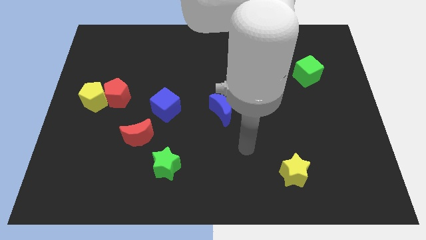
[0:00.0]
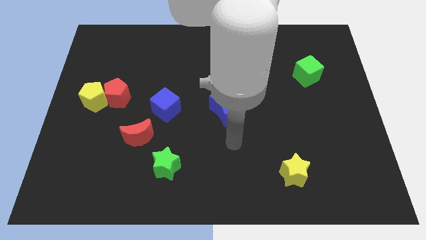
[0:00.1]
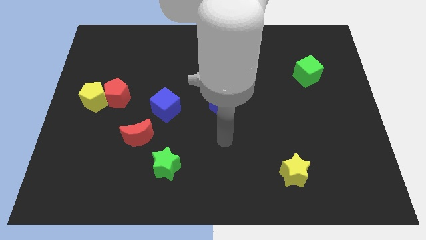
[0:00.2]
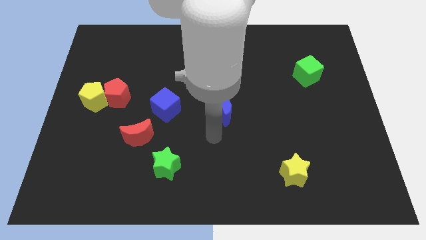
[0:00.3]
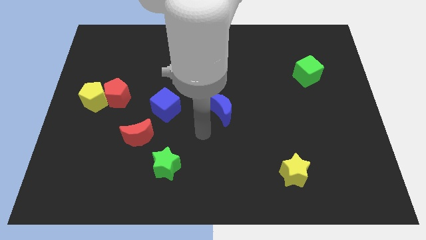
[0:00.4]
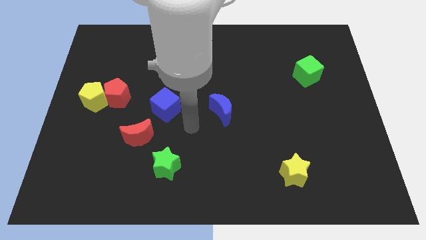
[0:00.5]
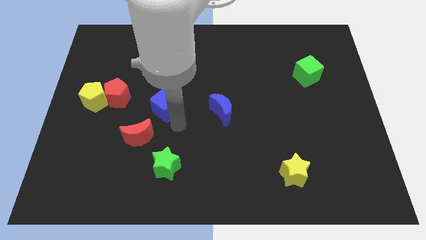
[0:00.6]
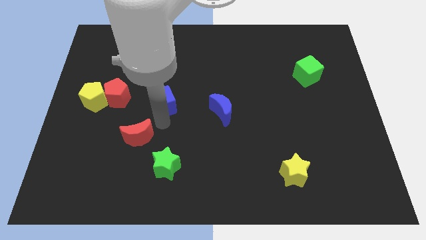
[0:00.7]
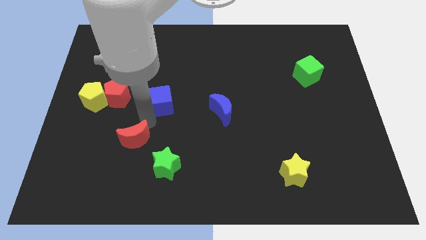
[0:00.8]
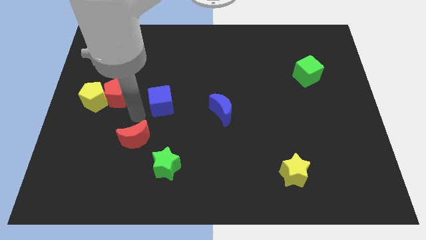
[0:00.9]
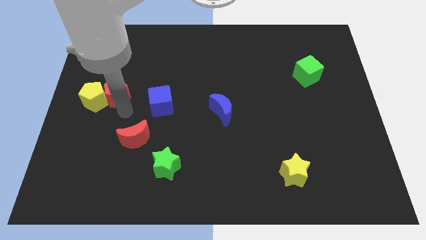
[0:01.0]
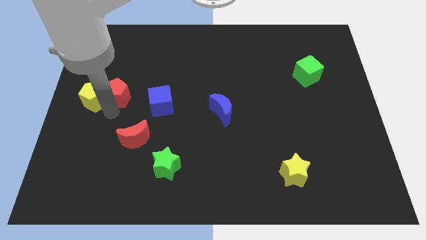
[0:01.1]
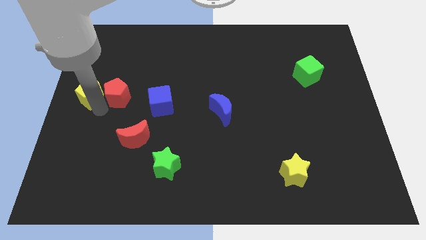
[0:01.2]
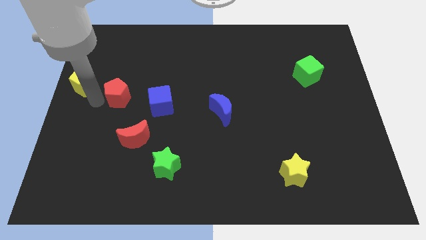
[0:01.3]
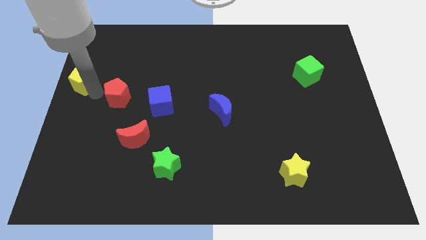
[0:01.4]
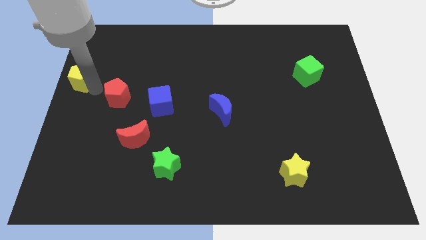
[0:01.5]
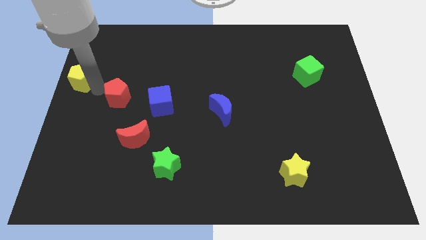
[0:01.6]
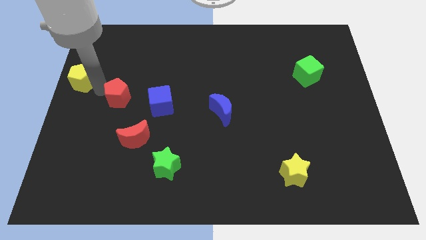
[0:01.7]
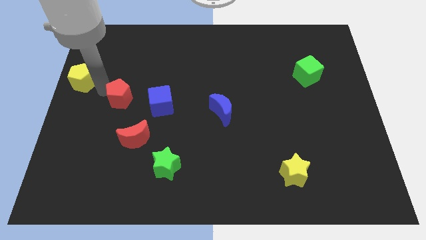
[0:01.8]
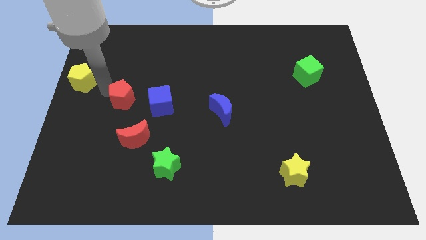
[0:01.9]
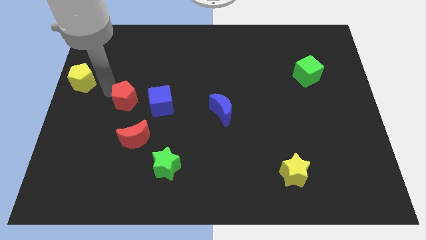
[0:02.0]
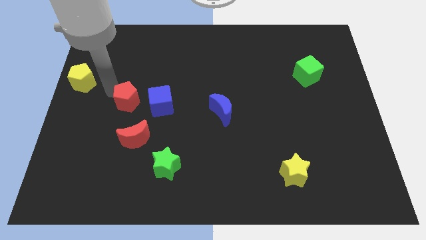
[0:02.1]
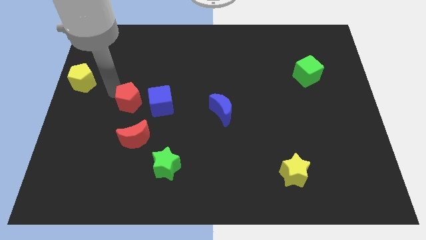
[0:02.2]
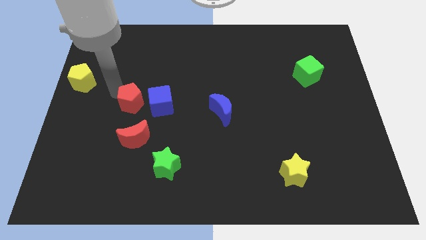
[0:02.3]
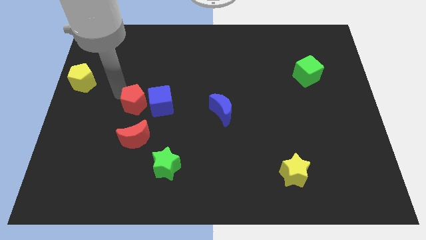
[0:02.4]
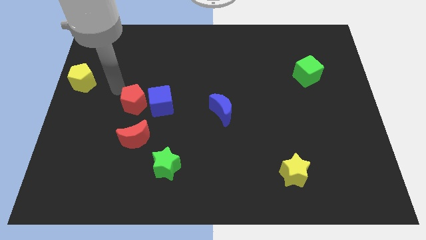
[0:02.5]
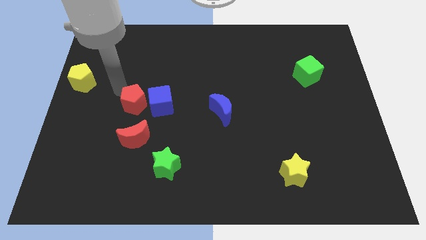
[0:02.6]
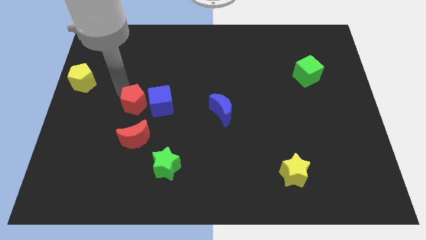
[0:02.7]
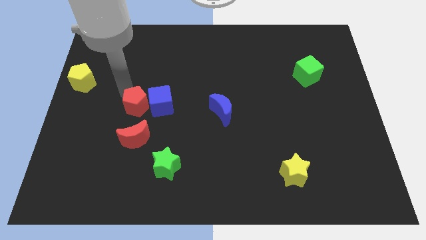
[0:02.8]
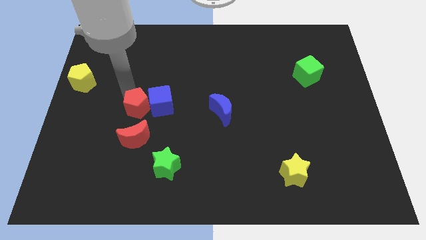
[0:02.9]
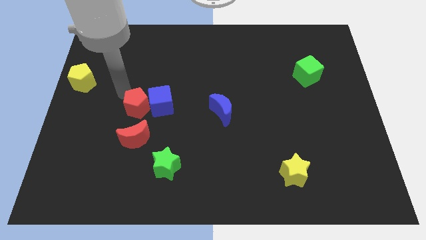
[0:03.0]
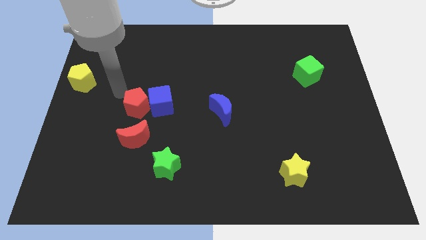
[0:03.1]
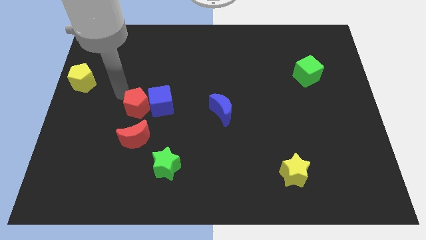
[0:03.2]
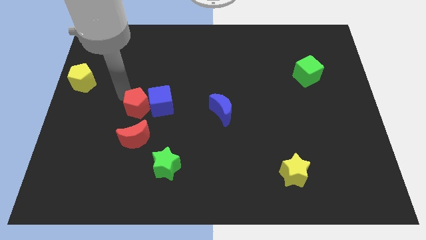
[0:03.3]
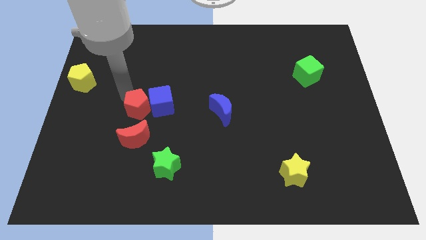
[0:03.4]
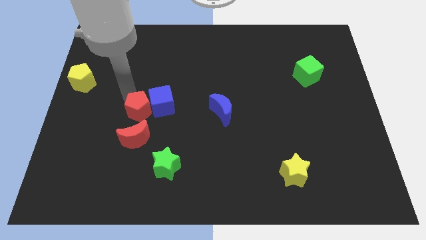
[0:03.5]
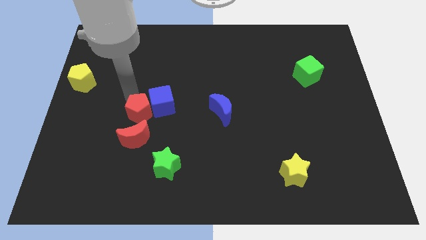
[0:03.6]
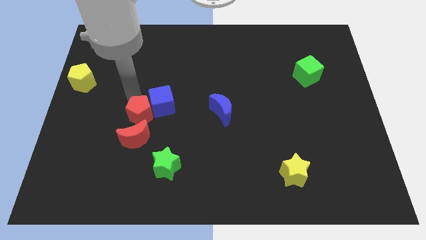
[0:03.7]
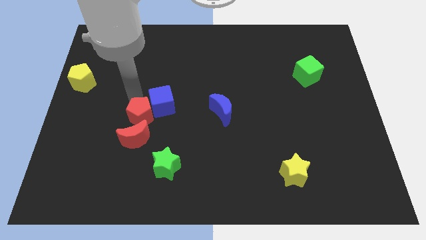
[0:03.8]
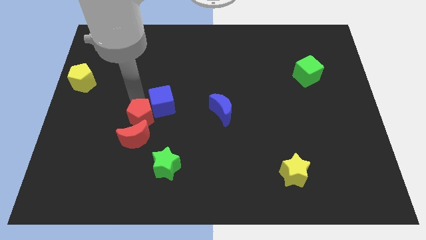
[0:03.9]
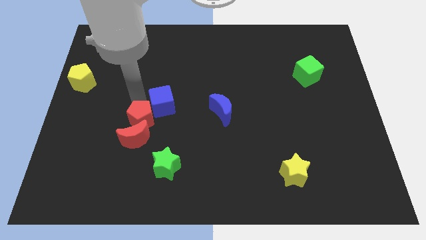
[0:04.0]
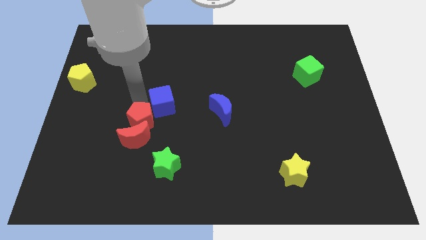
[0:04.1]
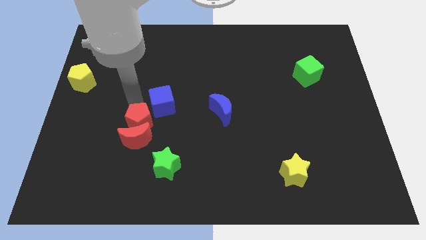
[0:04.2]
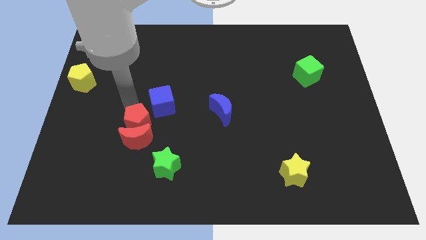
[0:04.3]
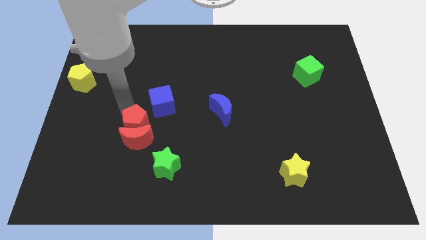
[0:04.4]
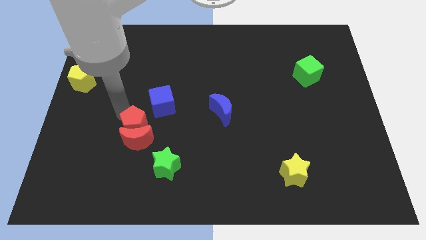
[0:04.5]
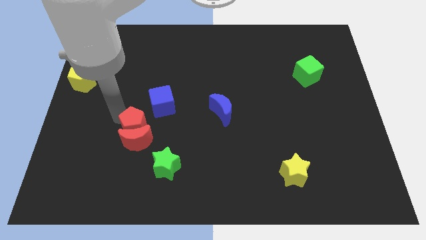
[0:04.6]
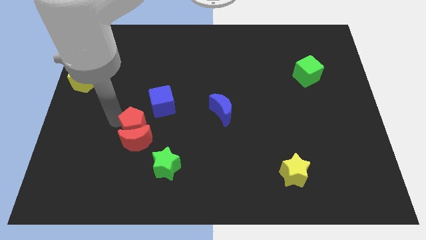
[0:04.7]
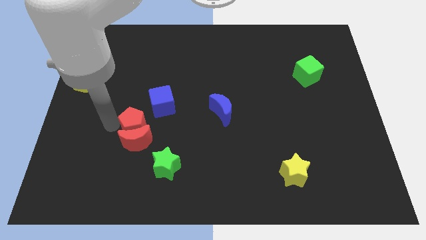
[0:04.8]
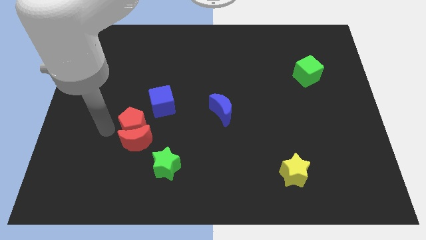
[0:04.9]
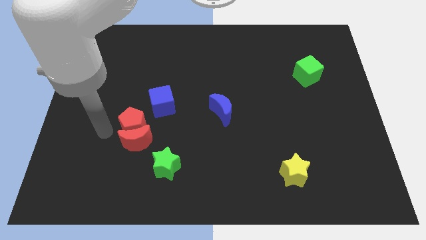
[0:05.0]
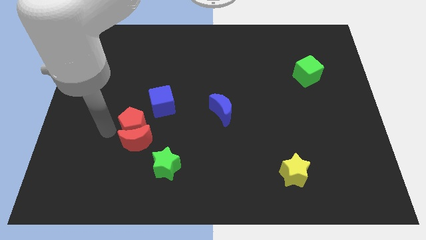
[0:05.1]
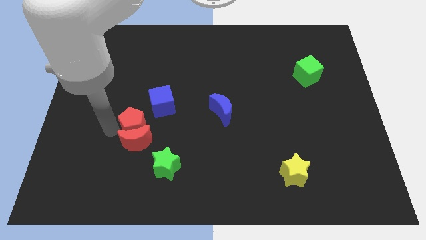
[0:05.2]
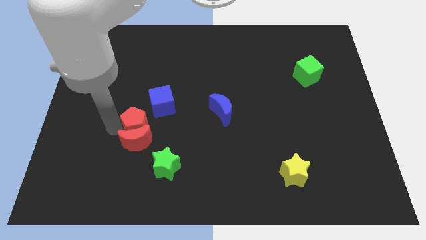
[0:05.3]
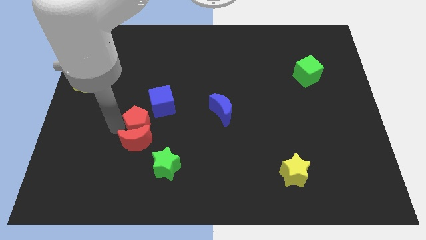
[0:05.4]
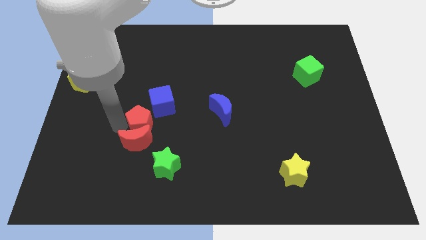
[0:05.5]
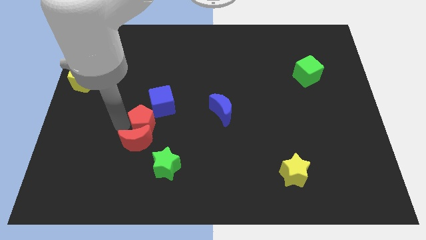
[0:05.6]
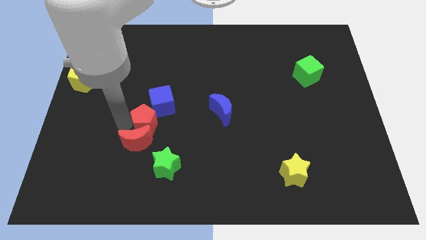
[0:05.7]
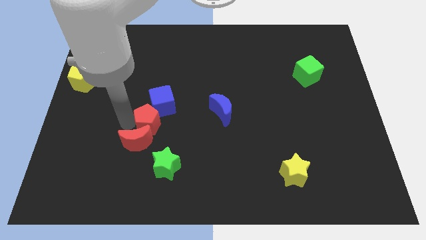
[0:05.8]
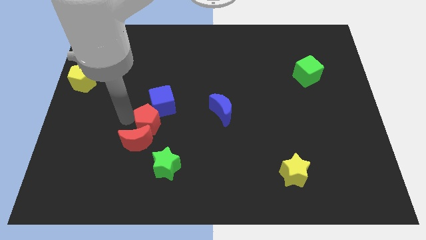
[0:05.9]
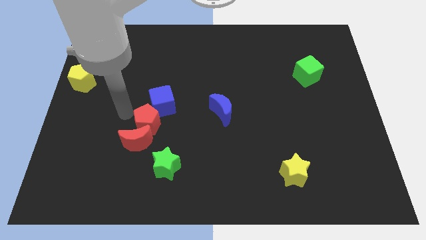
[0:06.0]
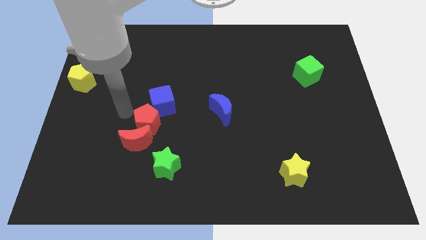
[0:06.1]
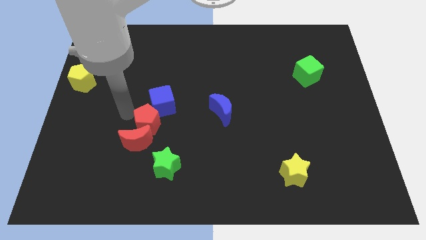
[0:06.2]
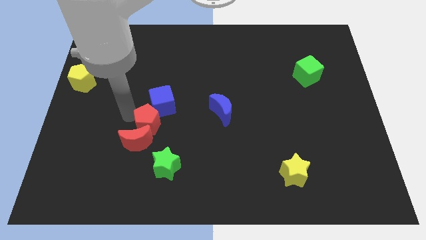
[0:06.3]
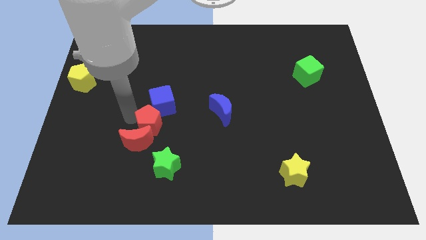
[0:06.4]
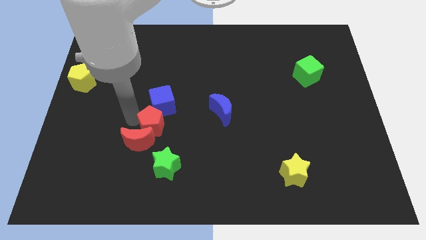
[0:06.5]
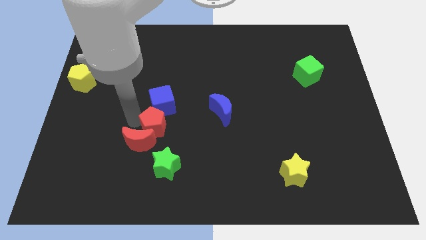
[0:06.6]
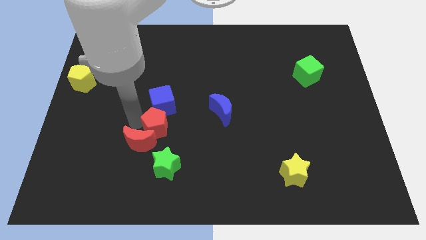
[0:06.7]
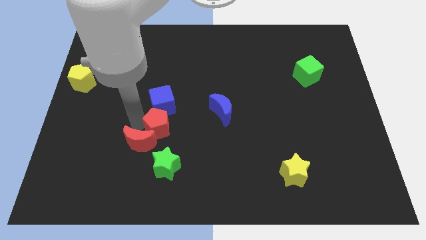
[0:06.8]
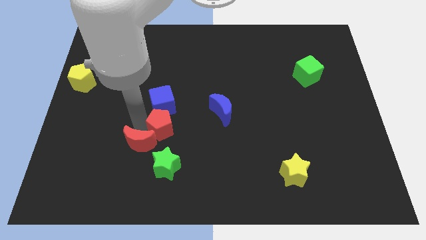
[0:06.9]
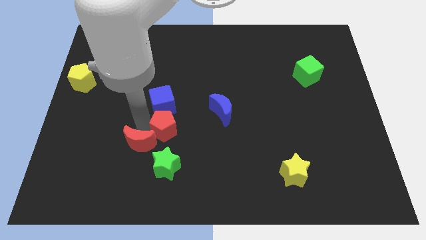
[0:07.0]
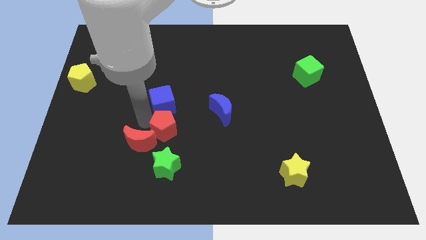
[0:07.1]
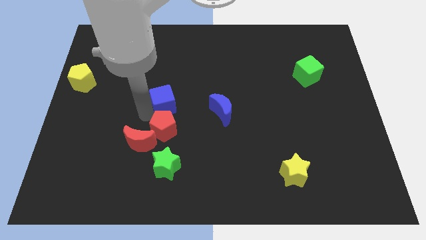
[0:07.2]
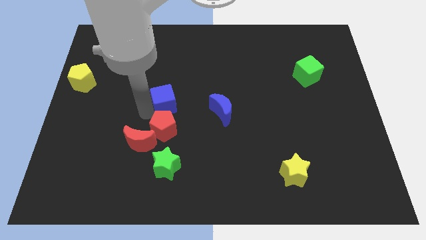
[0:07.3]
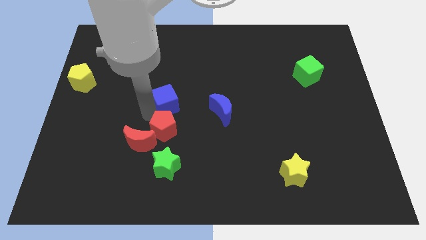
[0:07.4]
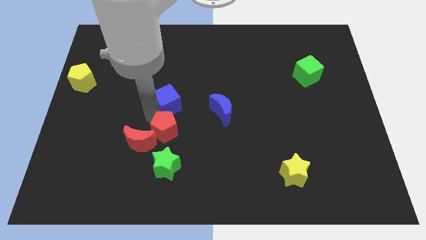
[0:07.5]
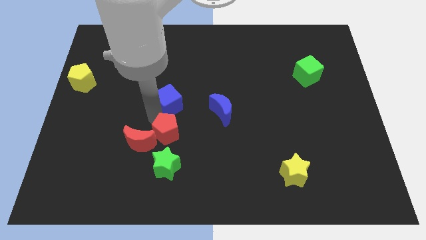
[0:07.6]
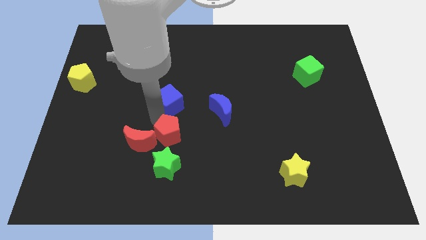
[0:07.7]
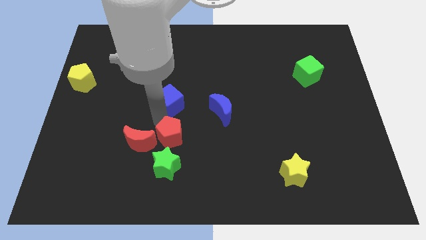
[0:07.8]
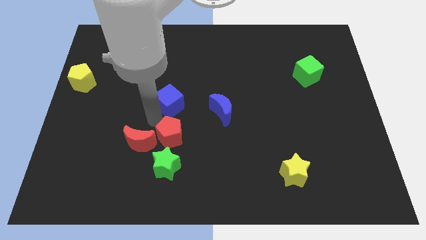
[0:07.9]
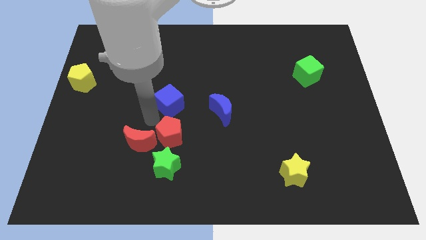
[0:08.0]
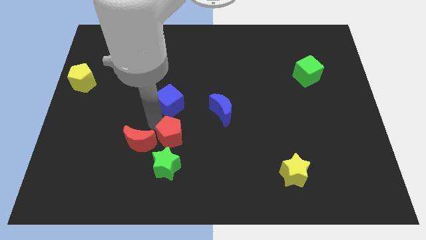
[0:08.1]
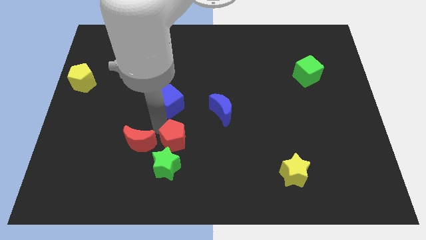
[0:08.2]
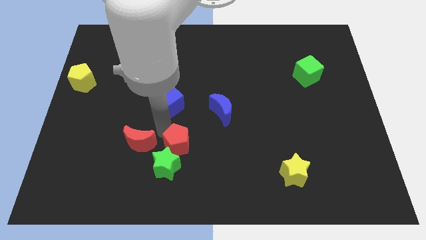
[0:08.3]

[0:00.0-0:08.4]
move the red pentagon downwards and to the right diagonally

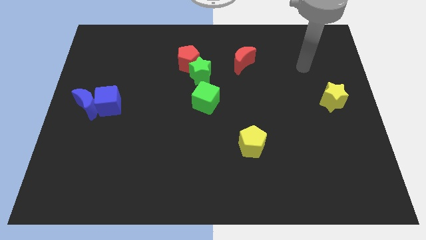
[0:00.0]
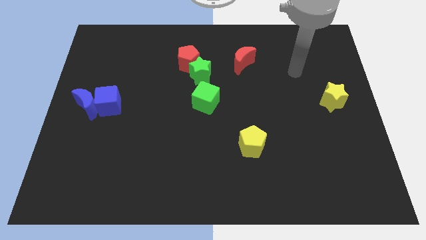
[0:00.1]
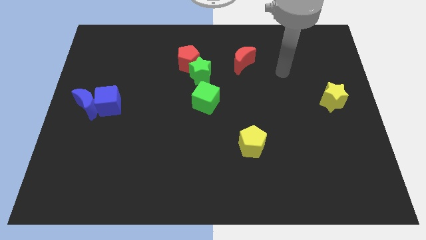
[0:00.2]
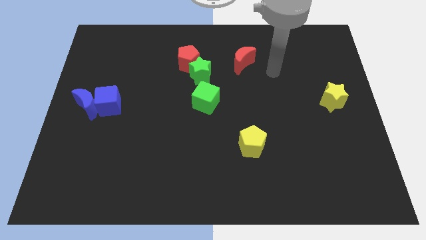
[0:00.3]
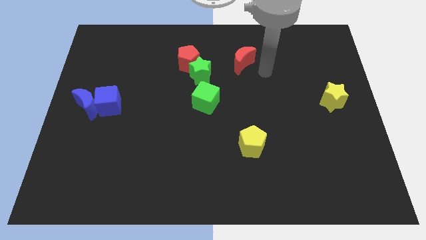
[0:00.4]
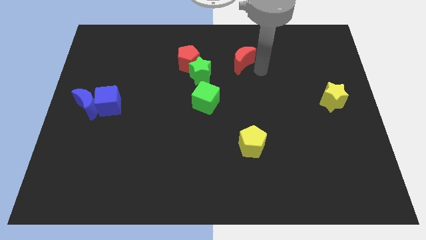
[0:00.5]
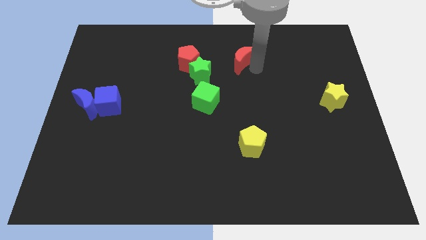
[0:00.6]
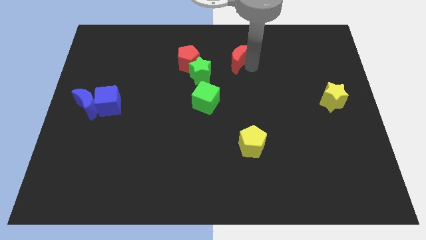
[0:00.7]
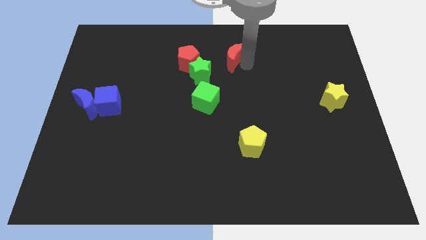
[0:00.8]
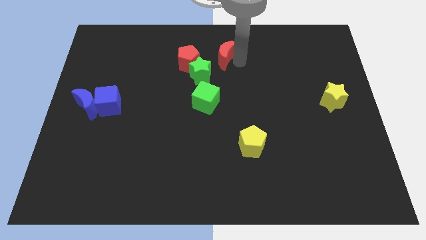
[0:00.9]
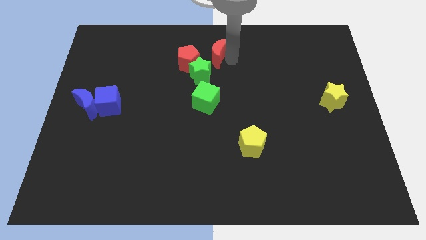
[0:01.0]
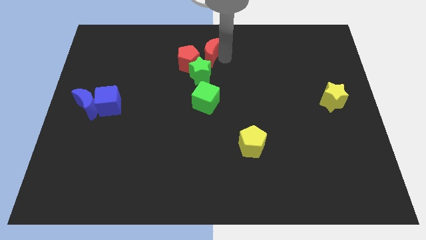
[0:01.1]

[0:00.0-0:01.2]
slightly move the red moon to the left
